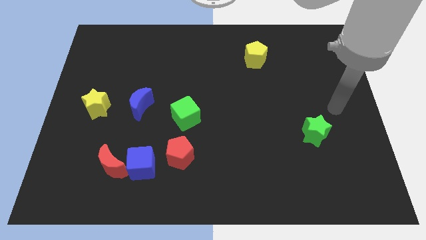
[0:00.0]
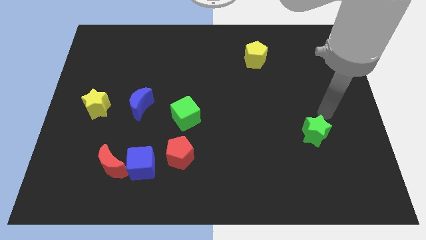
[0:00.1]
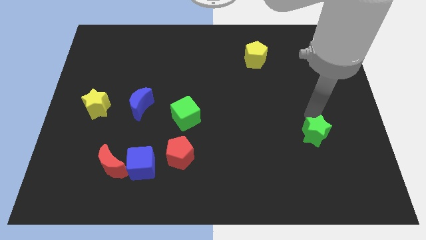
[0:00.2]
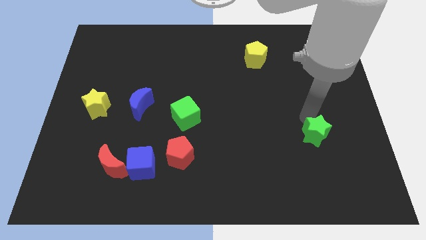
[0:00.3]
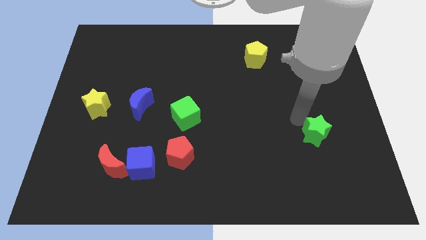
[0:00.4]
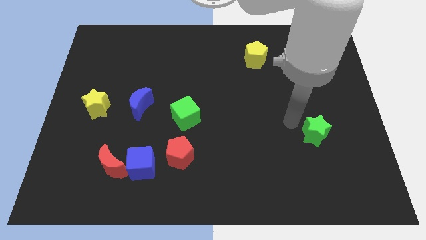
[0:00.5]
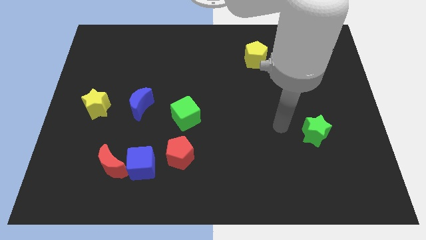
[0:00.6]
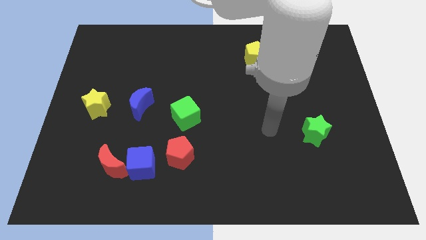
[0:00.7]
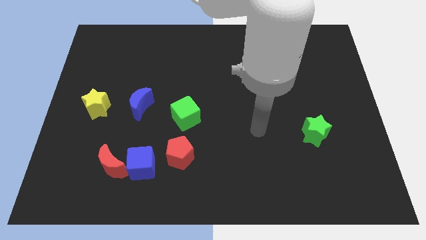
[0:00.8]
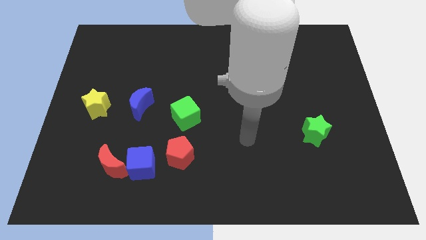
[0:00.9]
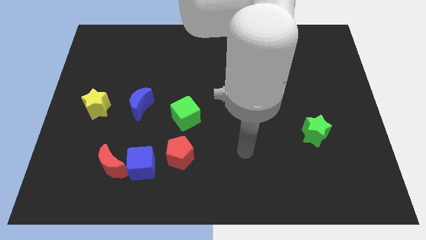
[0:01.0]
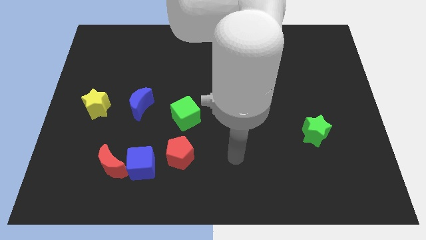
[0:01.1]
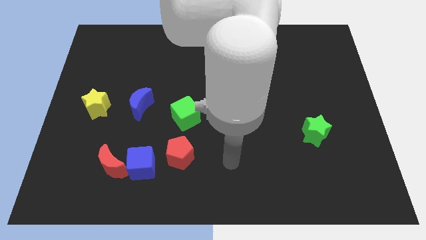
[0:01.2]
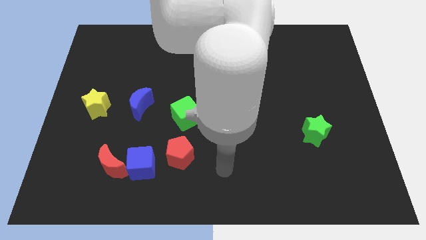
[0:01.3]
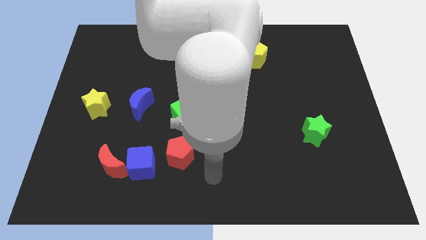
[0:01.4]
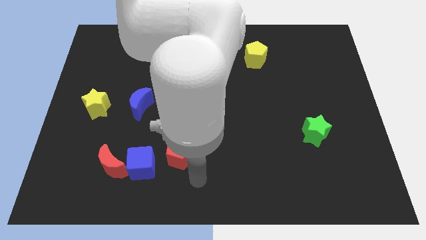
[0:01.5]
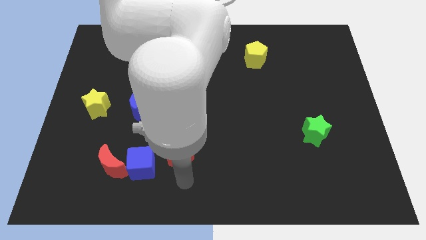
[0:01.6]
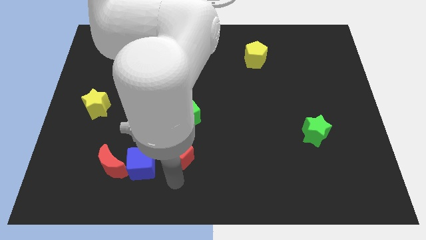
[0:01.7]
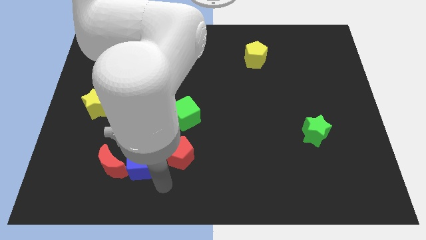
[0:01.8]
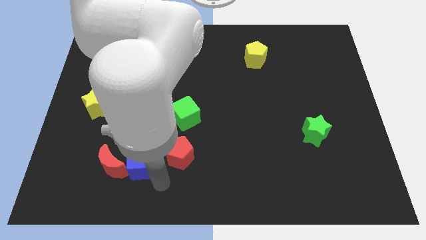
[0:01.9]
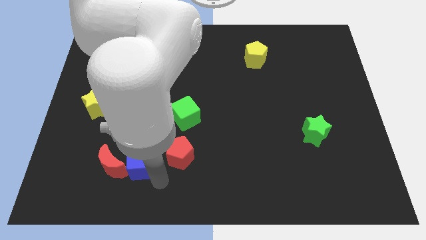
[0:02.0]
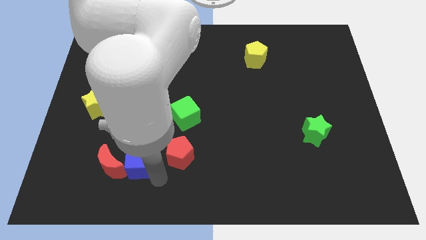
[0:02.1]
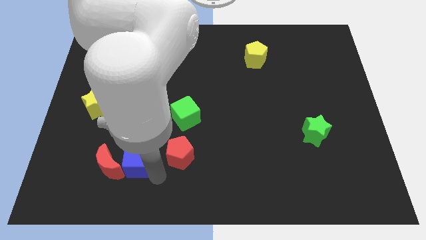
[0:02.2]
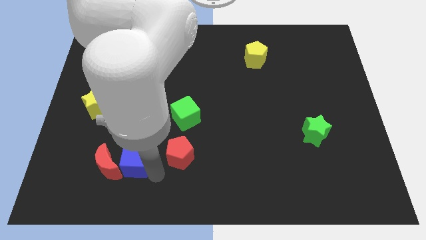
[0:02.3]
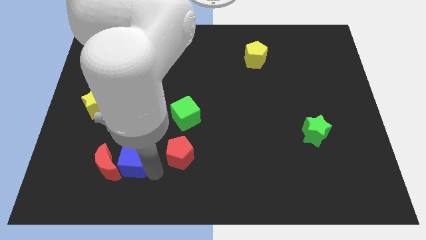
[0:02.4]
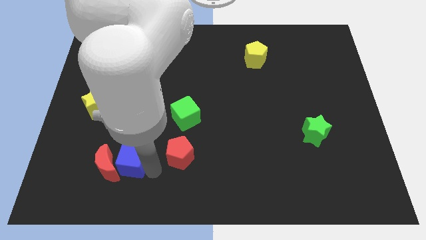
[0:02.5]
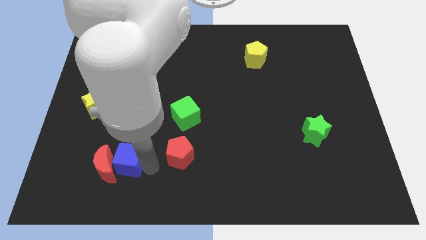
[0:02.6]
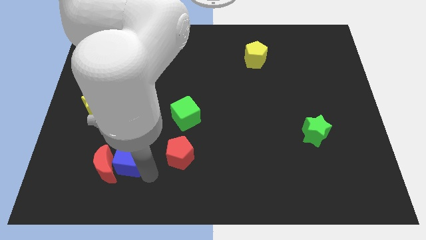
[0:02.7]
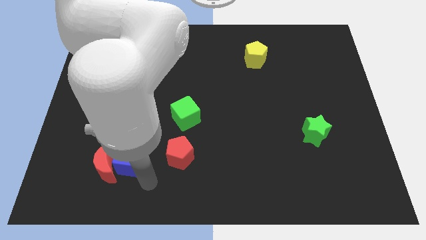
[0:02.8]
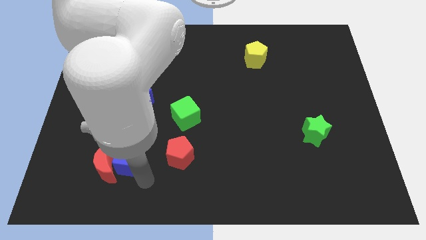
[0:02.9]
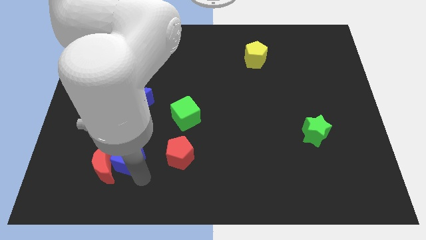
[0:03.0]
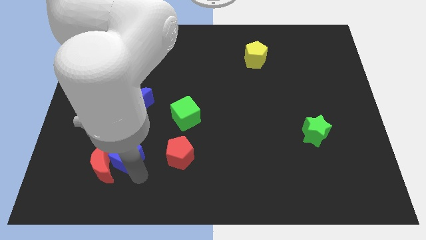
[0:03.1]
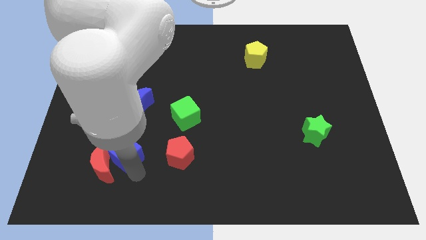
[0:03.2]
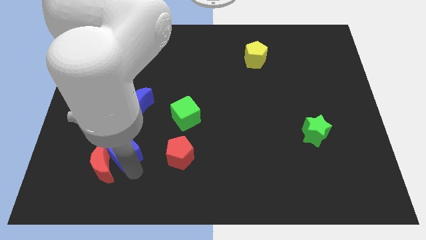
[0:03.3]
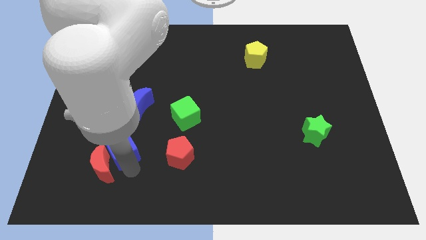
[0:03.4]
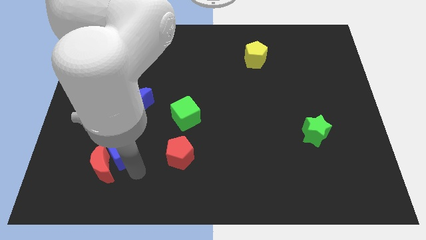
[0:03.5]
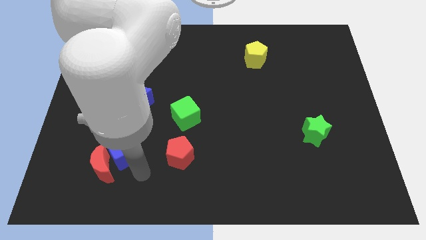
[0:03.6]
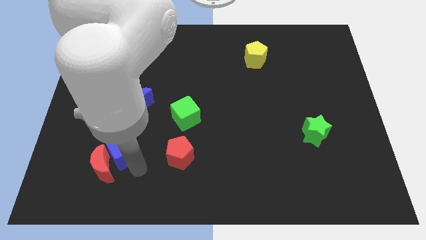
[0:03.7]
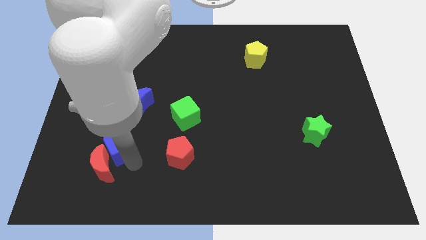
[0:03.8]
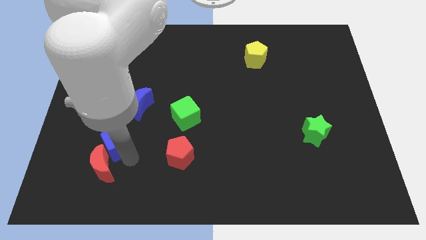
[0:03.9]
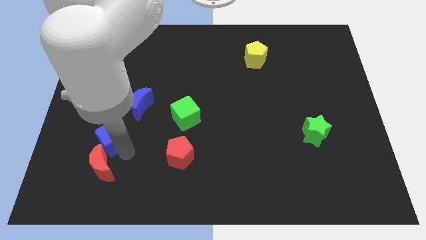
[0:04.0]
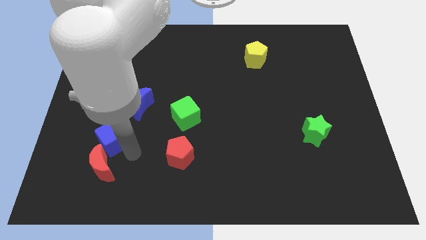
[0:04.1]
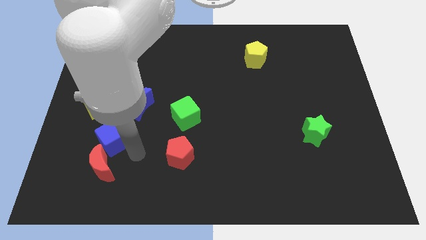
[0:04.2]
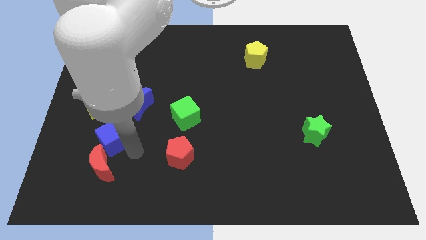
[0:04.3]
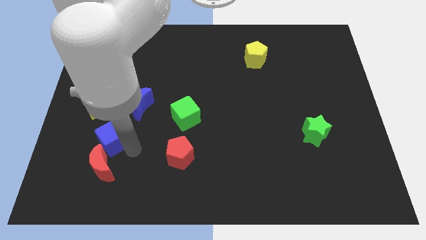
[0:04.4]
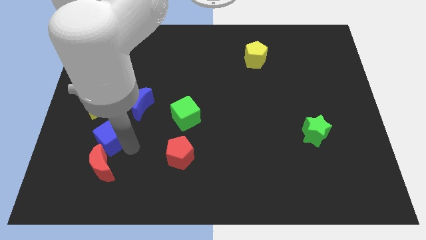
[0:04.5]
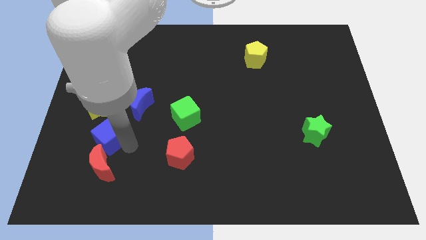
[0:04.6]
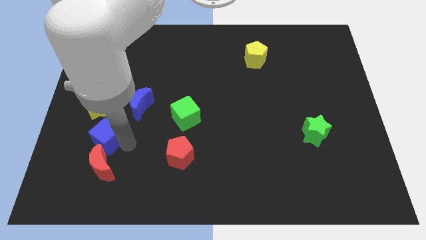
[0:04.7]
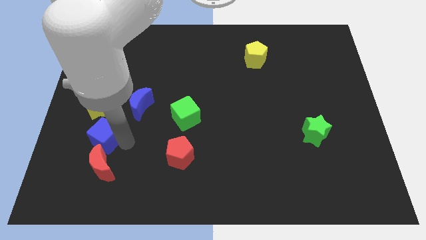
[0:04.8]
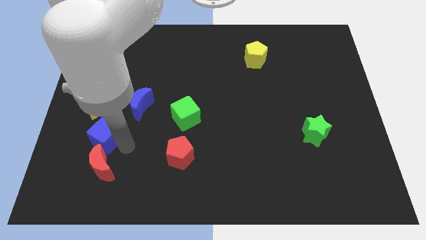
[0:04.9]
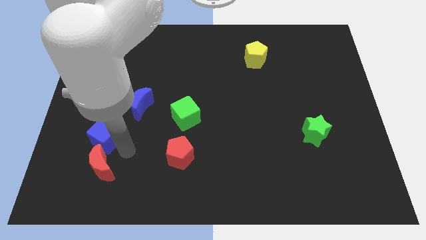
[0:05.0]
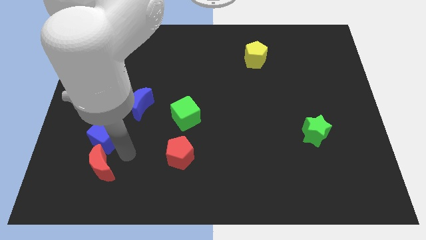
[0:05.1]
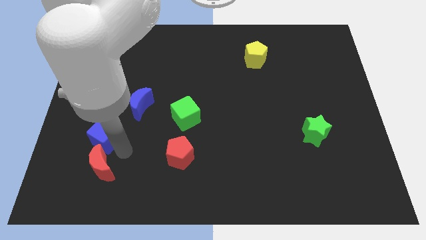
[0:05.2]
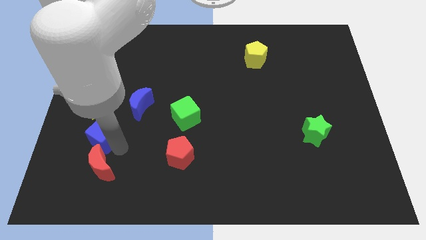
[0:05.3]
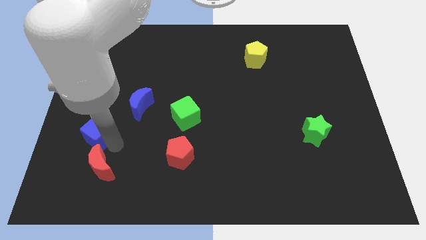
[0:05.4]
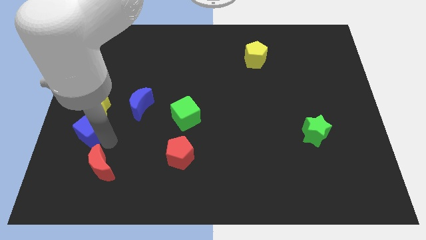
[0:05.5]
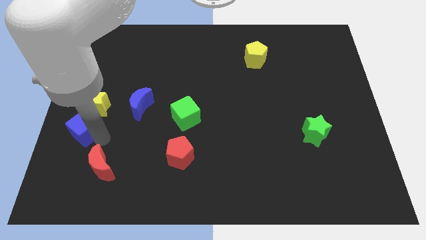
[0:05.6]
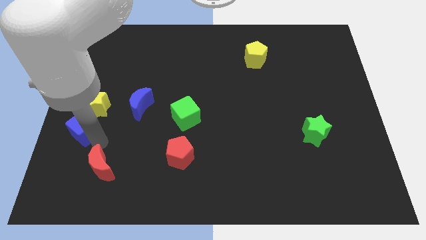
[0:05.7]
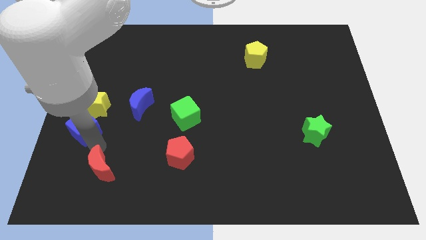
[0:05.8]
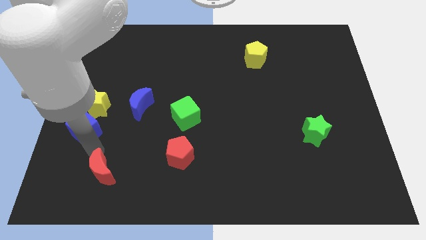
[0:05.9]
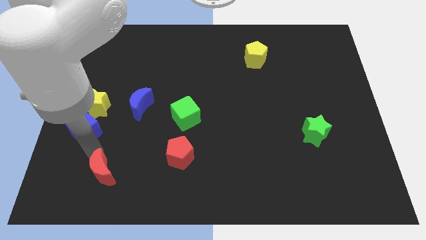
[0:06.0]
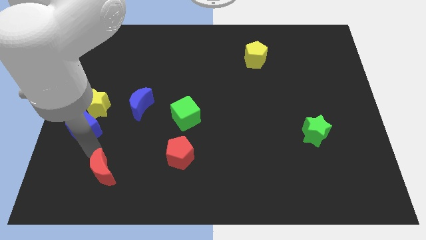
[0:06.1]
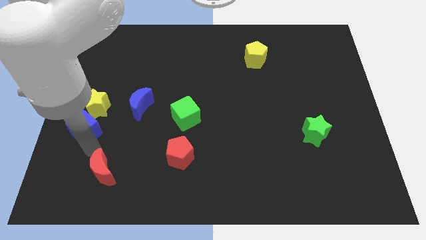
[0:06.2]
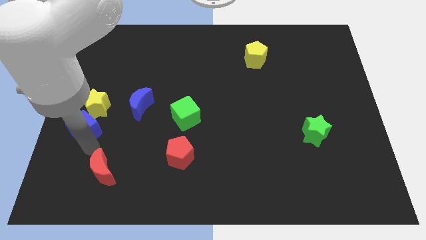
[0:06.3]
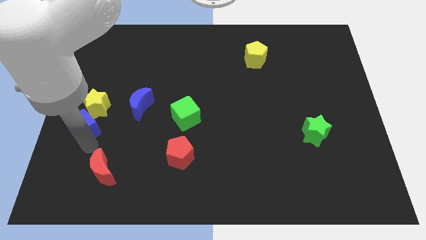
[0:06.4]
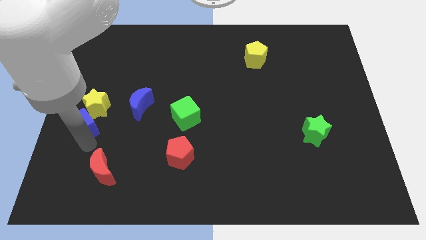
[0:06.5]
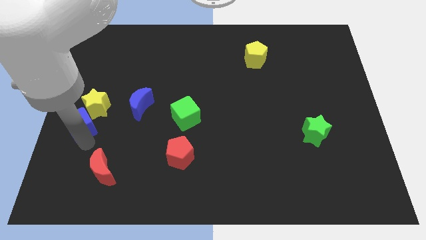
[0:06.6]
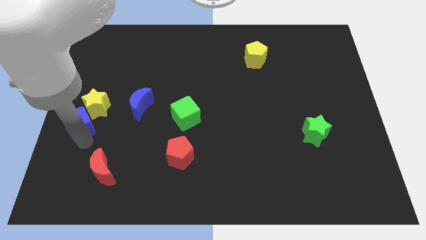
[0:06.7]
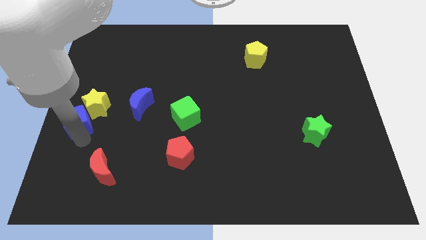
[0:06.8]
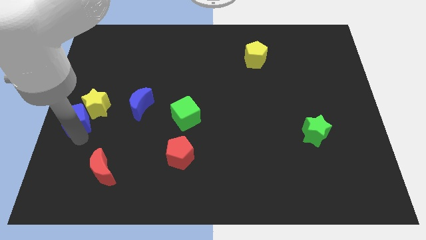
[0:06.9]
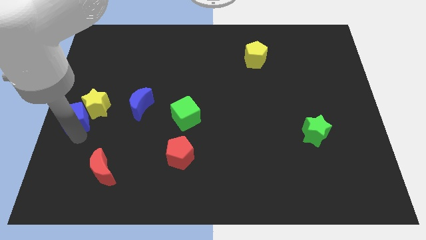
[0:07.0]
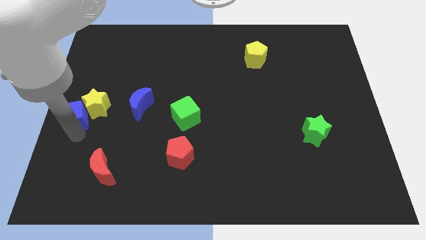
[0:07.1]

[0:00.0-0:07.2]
put the blue cube left of the blue moon
